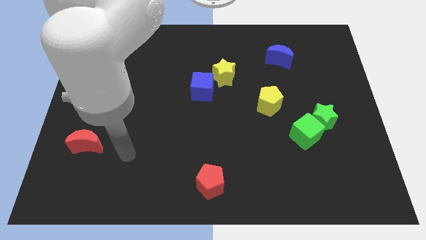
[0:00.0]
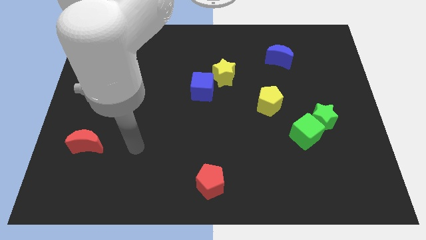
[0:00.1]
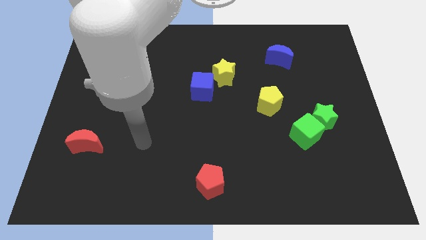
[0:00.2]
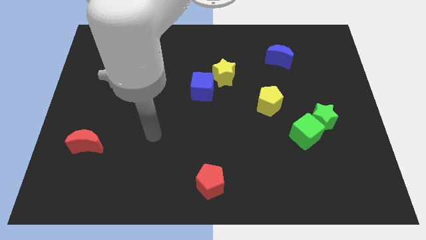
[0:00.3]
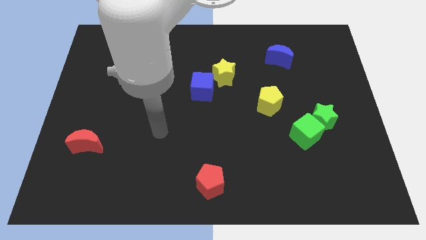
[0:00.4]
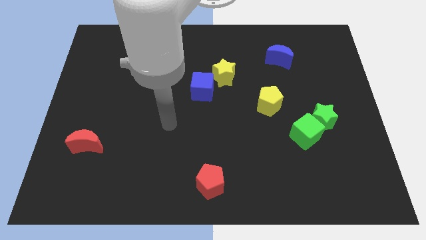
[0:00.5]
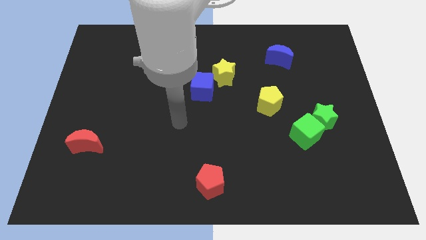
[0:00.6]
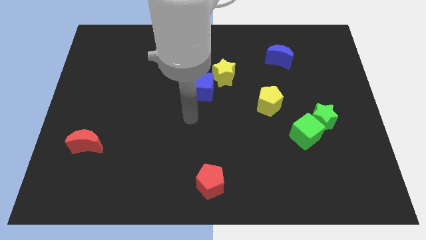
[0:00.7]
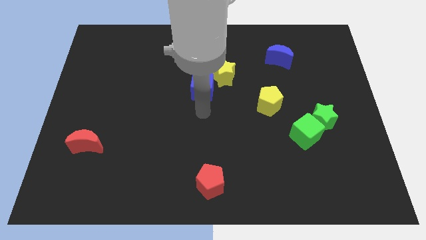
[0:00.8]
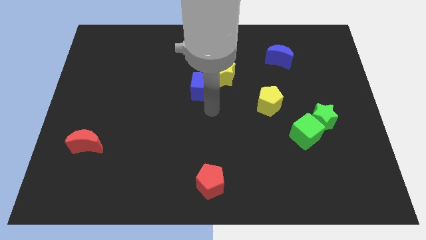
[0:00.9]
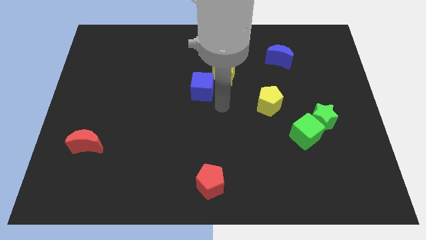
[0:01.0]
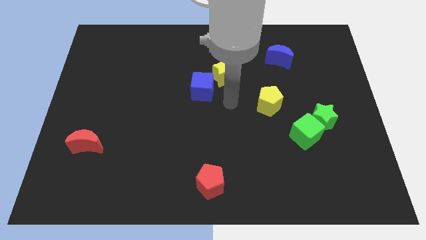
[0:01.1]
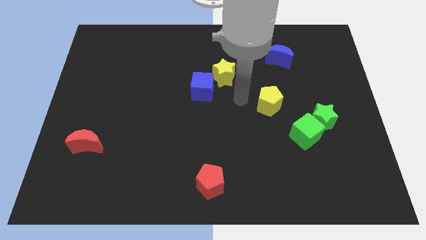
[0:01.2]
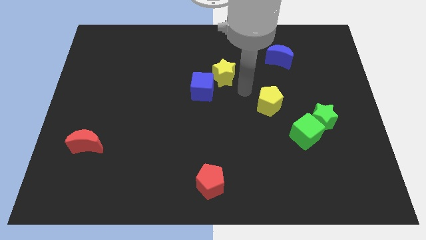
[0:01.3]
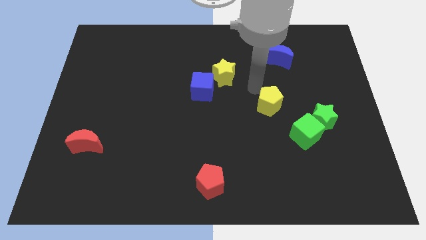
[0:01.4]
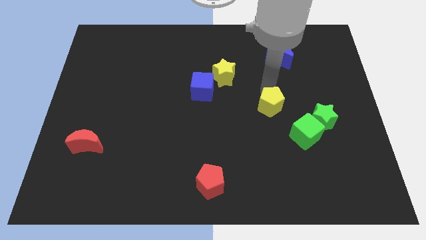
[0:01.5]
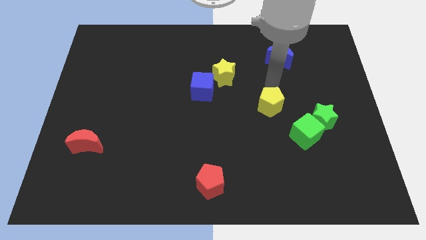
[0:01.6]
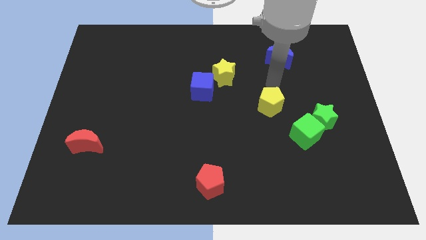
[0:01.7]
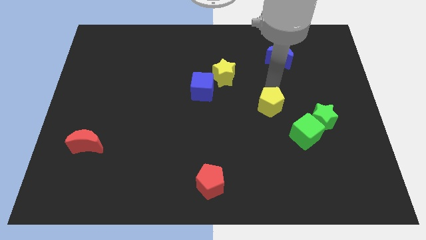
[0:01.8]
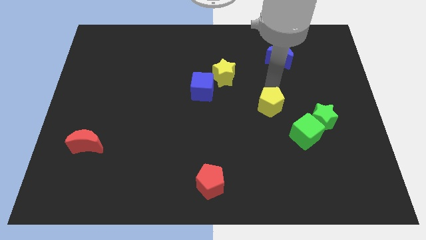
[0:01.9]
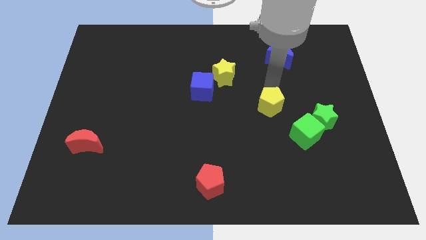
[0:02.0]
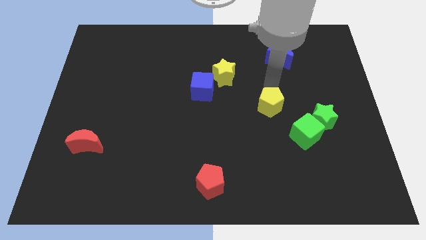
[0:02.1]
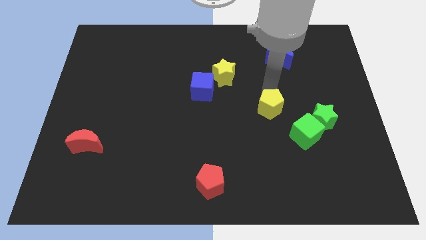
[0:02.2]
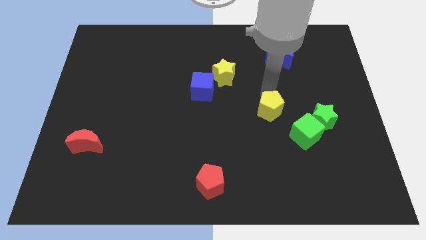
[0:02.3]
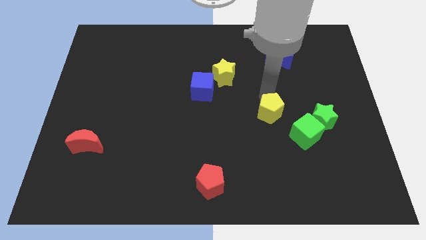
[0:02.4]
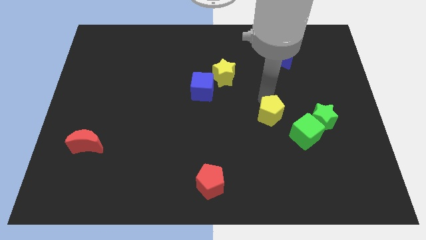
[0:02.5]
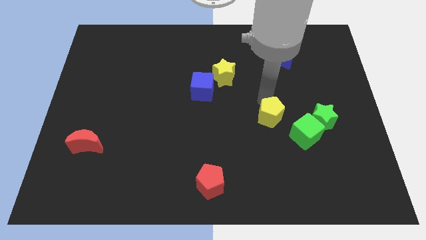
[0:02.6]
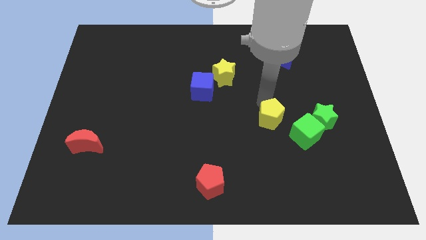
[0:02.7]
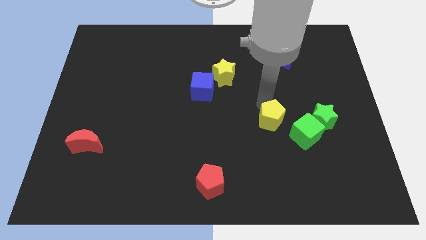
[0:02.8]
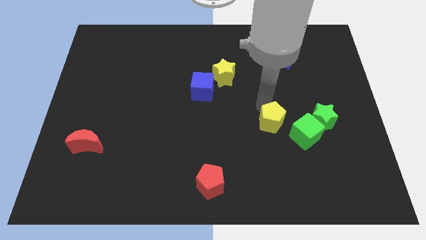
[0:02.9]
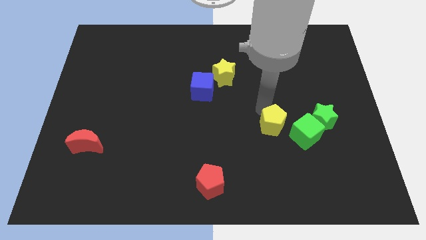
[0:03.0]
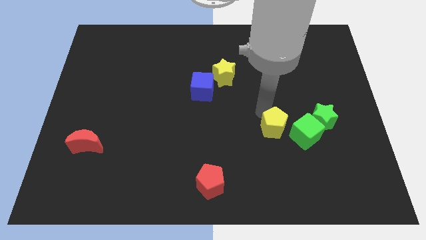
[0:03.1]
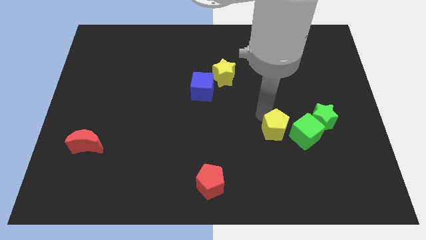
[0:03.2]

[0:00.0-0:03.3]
push the yellow pentagon a bit down

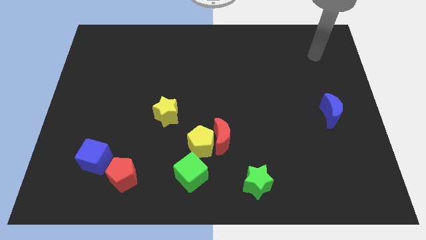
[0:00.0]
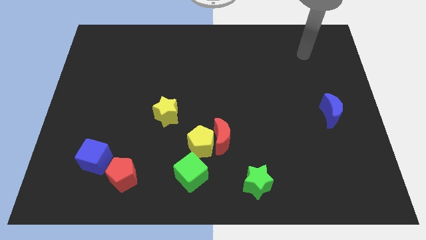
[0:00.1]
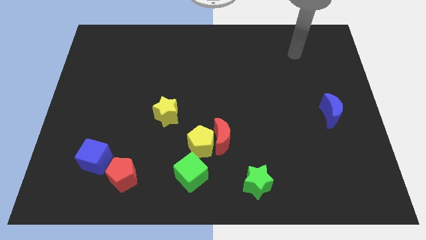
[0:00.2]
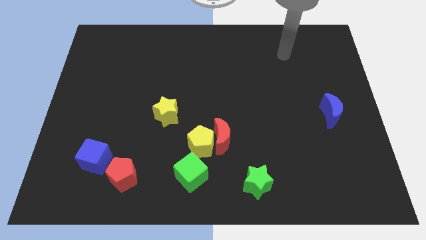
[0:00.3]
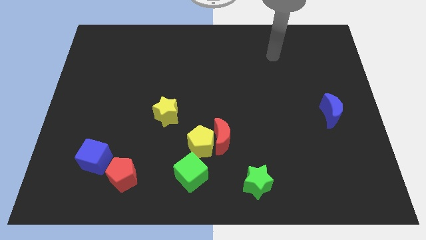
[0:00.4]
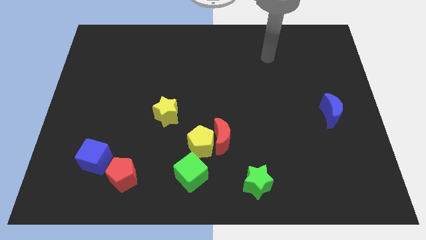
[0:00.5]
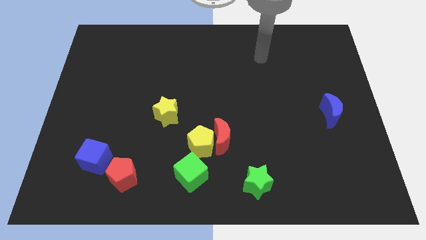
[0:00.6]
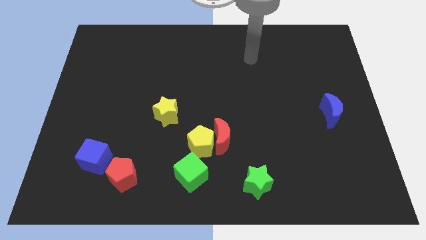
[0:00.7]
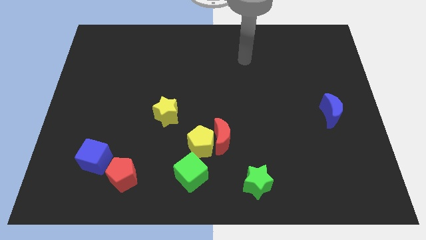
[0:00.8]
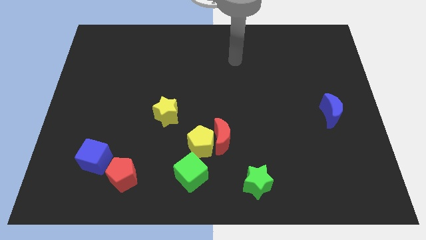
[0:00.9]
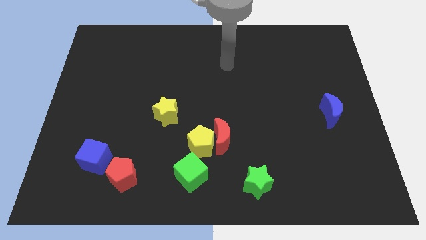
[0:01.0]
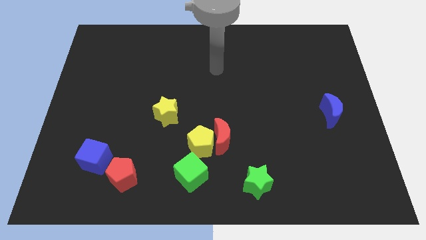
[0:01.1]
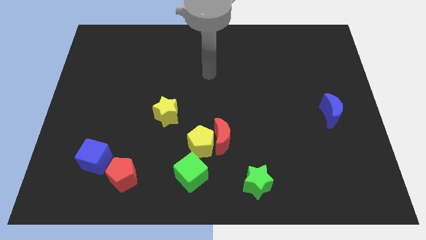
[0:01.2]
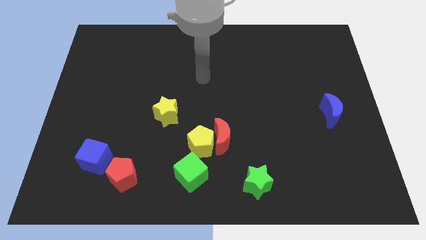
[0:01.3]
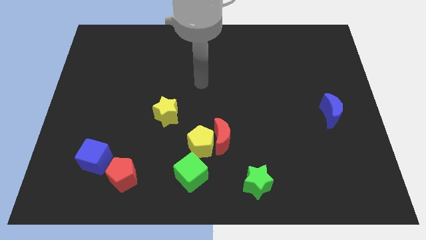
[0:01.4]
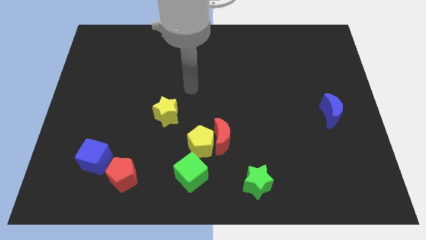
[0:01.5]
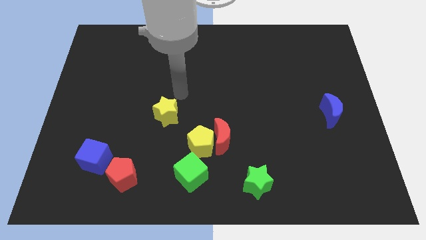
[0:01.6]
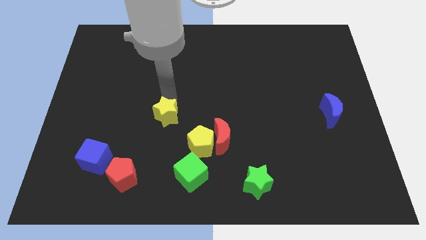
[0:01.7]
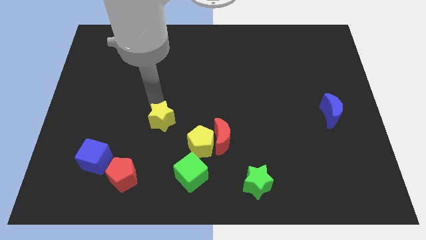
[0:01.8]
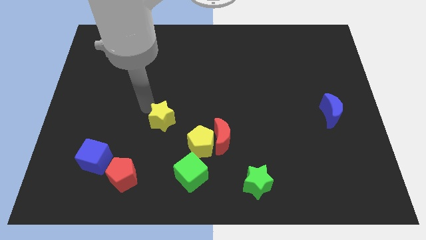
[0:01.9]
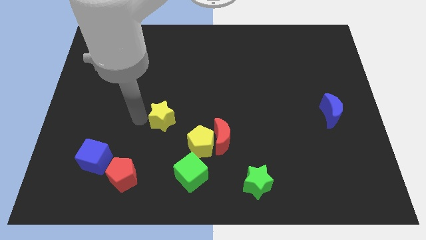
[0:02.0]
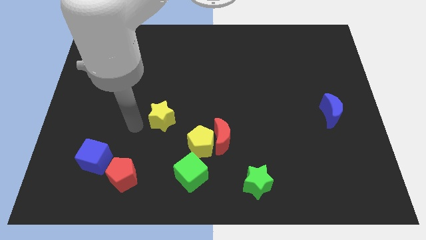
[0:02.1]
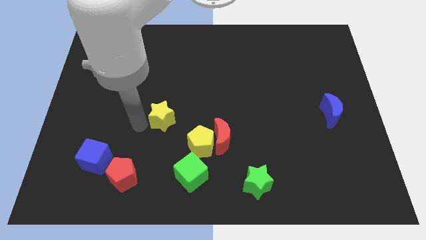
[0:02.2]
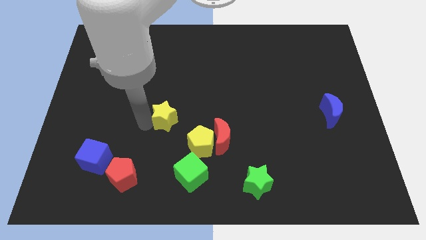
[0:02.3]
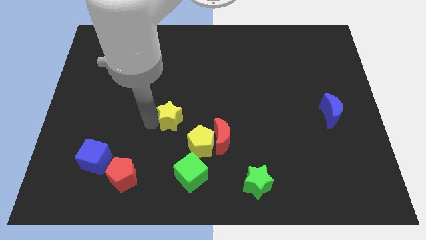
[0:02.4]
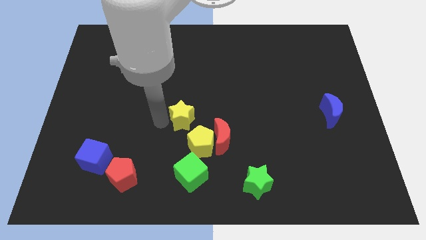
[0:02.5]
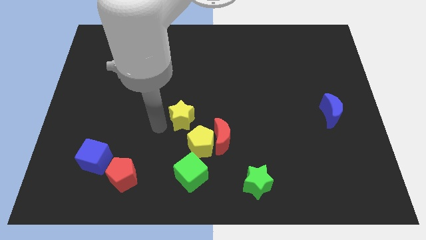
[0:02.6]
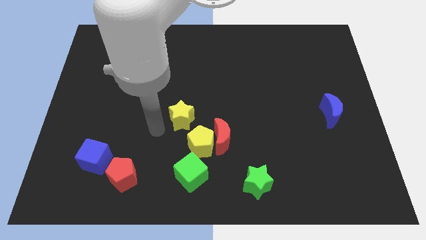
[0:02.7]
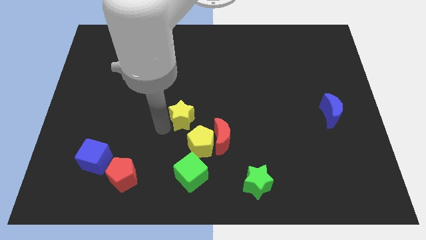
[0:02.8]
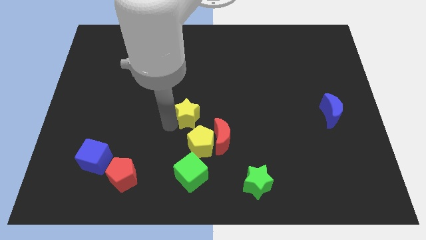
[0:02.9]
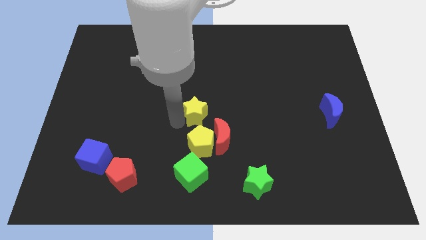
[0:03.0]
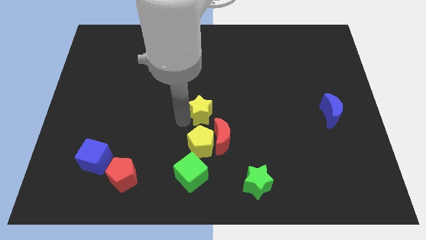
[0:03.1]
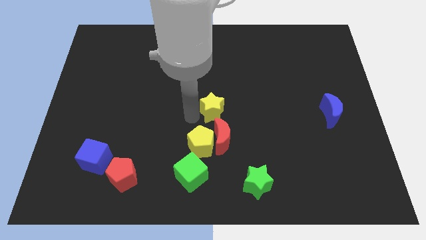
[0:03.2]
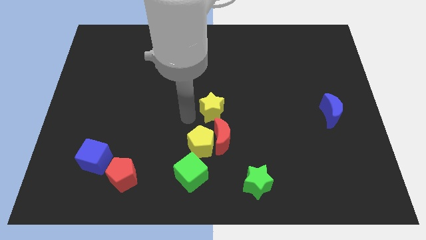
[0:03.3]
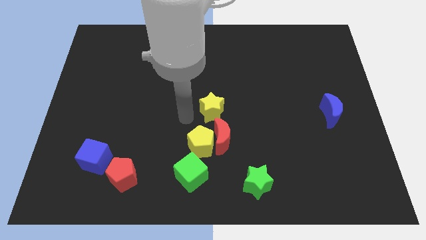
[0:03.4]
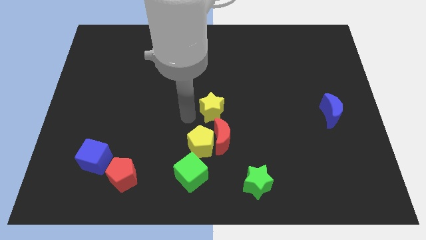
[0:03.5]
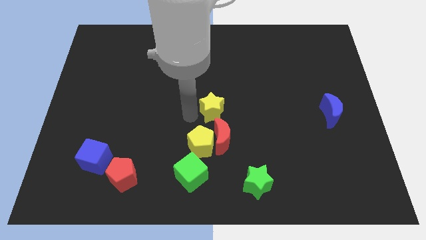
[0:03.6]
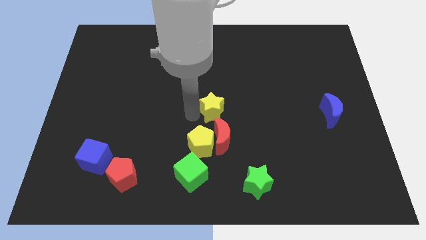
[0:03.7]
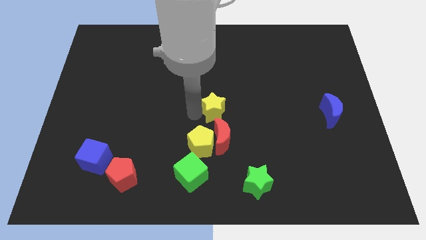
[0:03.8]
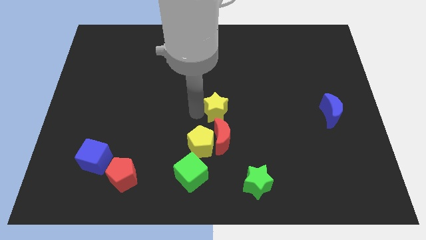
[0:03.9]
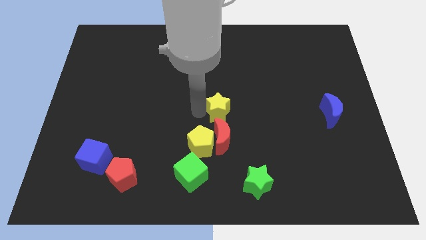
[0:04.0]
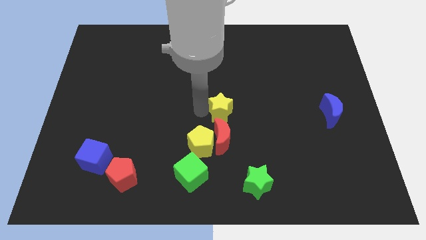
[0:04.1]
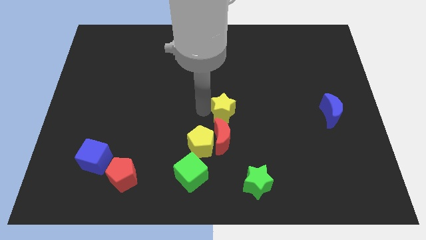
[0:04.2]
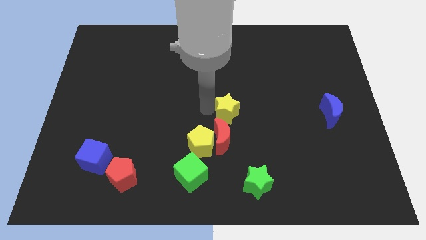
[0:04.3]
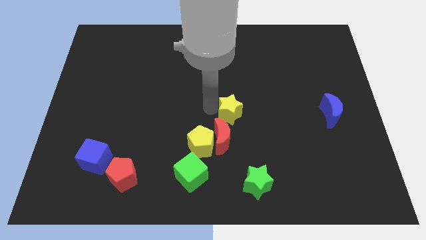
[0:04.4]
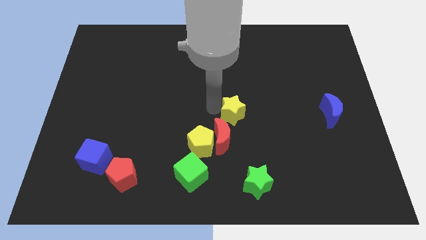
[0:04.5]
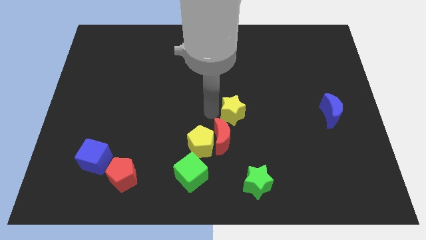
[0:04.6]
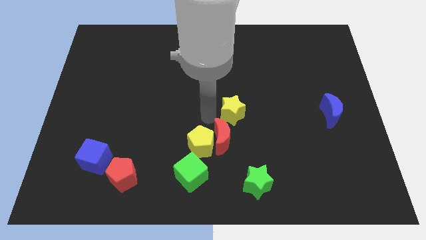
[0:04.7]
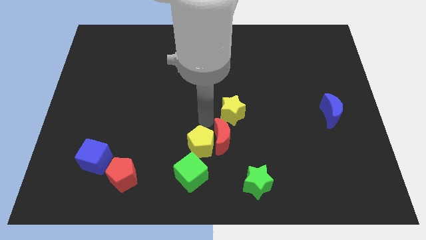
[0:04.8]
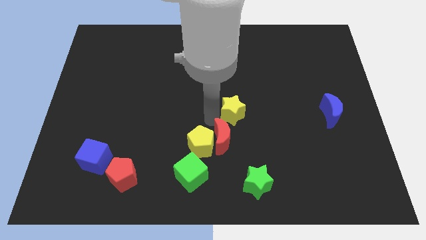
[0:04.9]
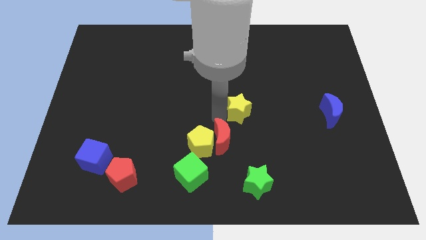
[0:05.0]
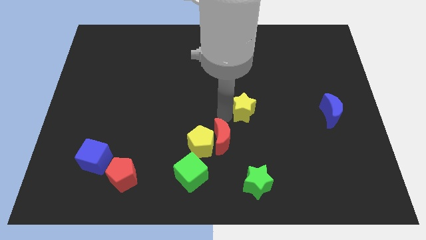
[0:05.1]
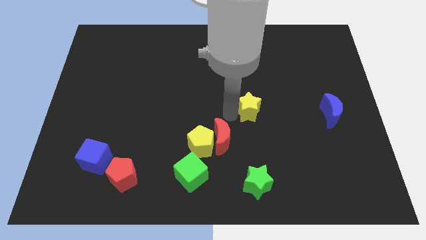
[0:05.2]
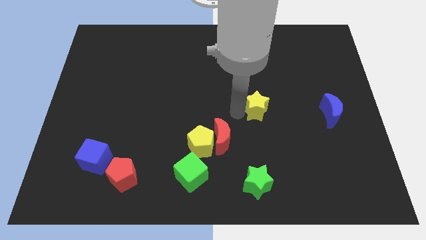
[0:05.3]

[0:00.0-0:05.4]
push the yellow star right
